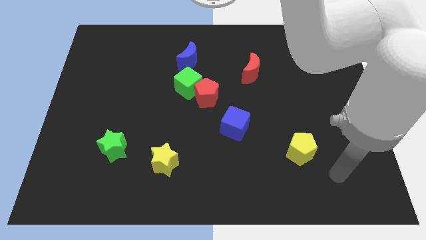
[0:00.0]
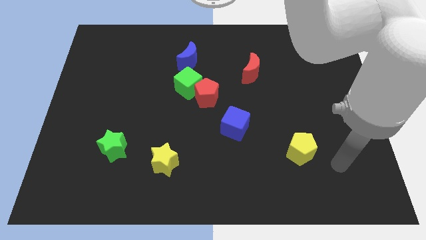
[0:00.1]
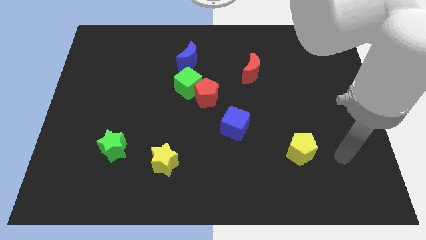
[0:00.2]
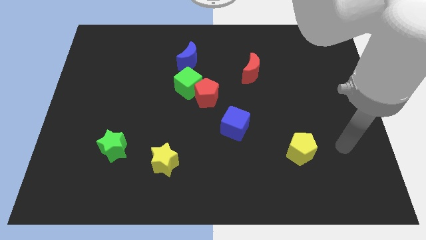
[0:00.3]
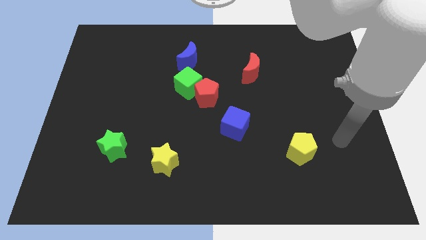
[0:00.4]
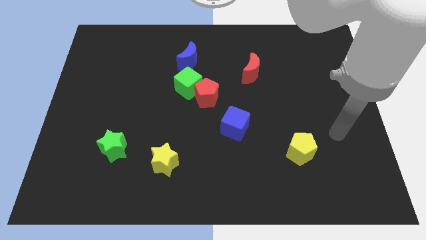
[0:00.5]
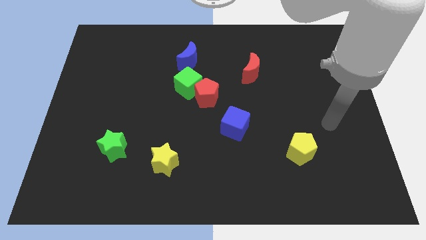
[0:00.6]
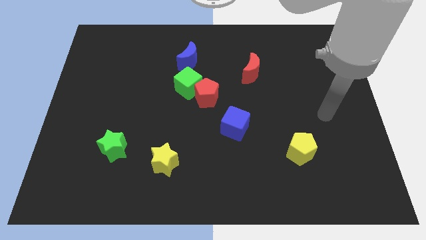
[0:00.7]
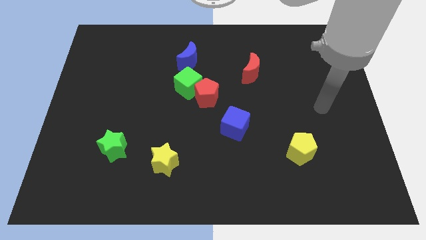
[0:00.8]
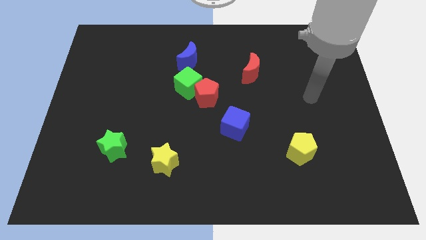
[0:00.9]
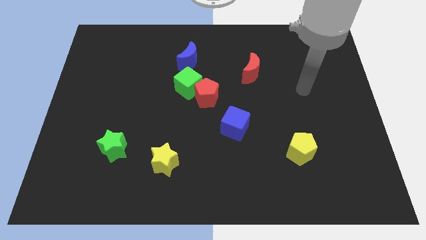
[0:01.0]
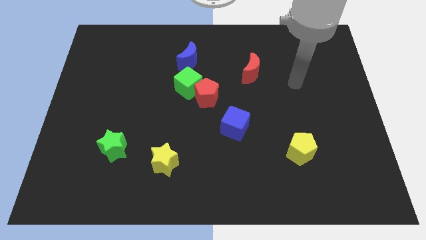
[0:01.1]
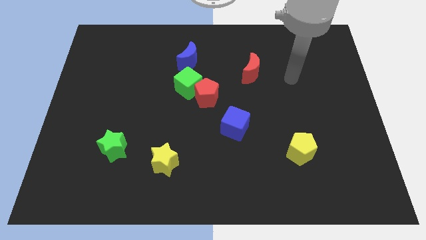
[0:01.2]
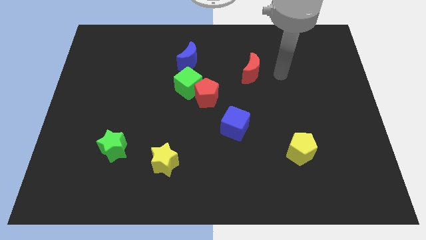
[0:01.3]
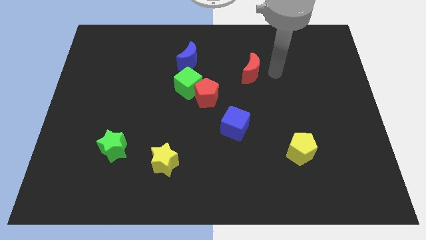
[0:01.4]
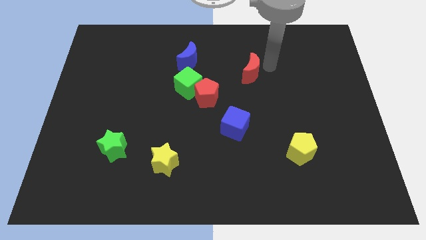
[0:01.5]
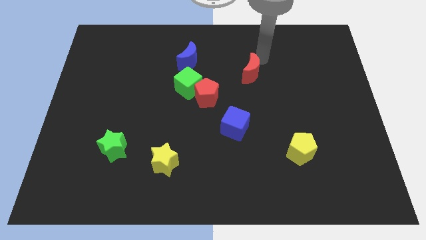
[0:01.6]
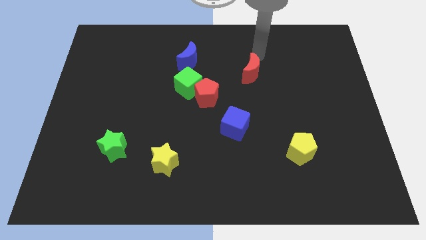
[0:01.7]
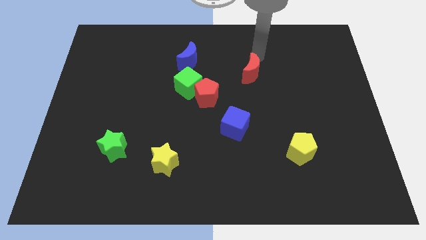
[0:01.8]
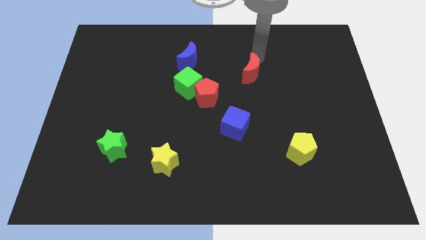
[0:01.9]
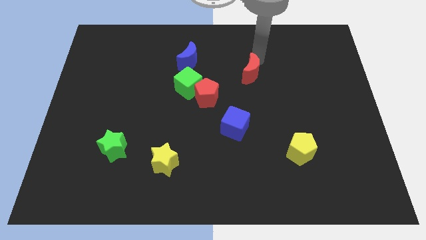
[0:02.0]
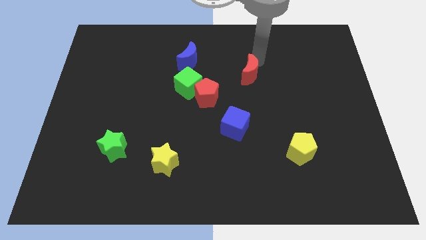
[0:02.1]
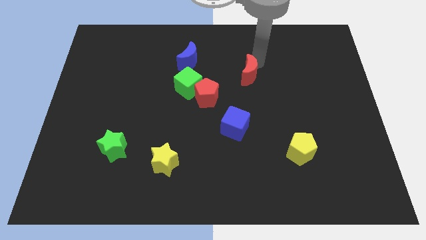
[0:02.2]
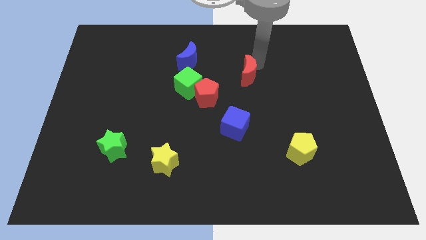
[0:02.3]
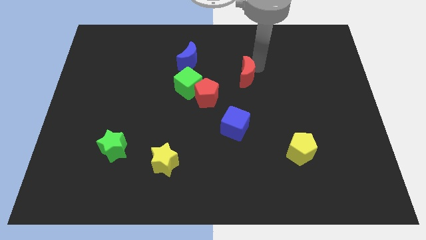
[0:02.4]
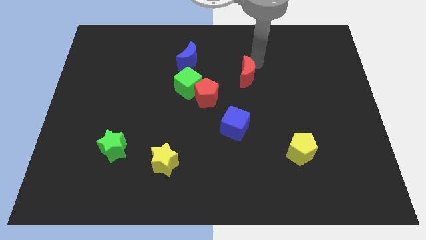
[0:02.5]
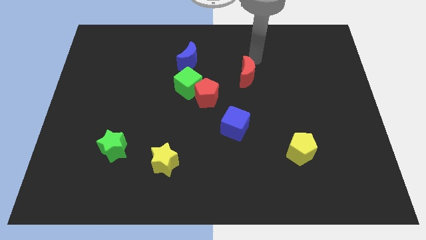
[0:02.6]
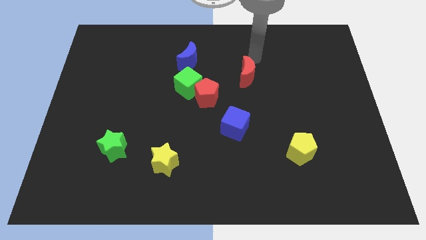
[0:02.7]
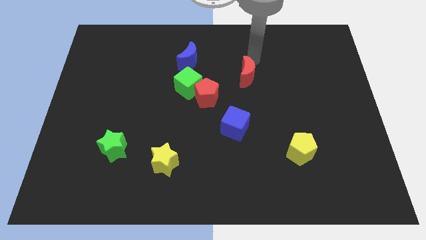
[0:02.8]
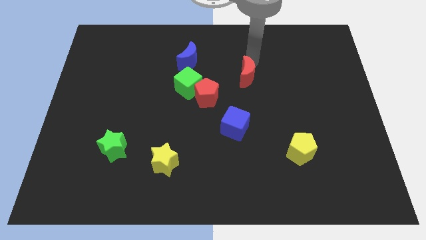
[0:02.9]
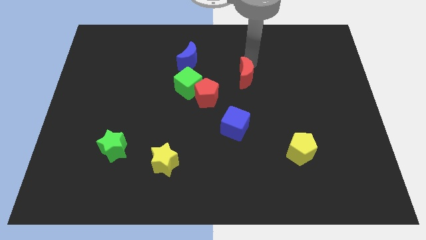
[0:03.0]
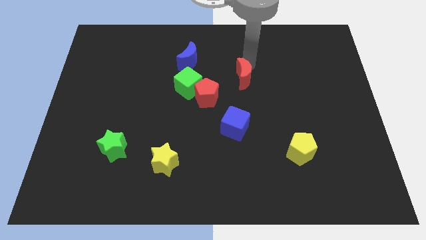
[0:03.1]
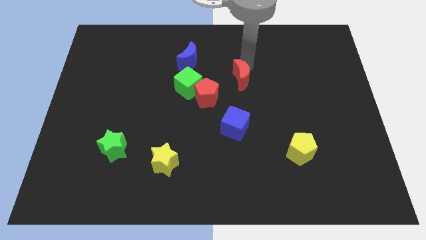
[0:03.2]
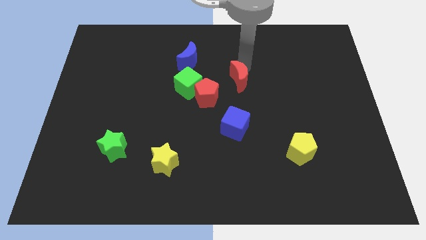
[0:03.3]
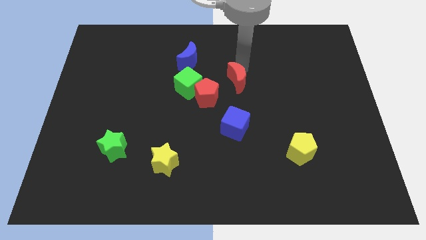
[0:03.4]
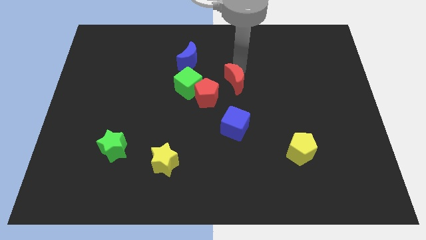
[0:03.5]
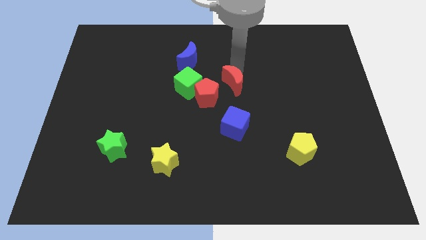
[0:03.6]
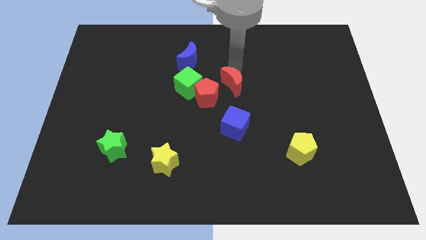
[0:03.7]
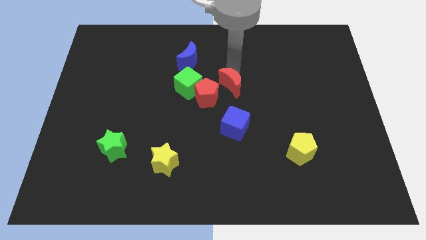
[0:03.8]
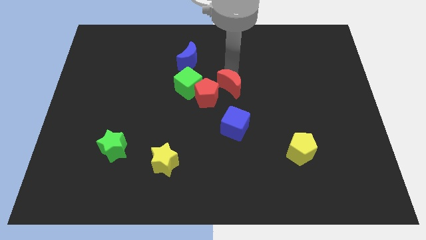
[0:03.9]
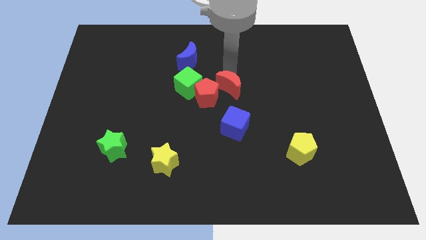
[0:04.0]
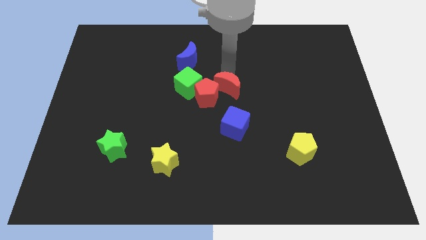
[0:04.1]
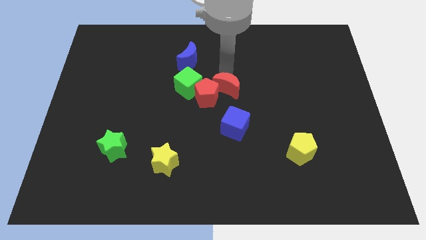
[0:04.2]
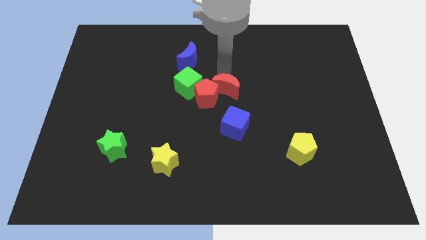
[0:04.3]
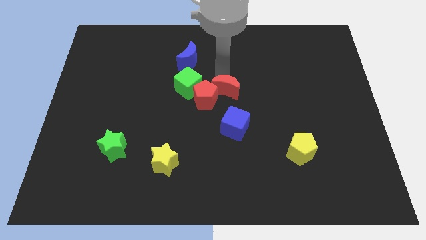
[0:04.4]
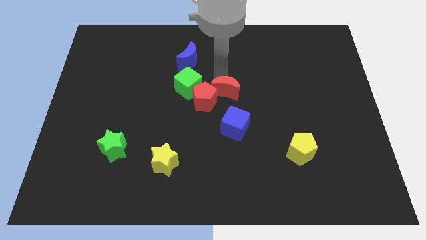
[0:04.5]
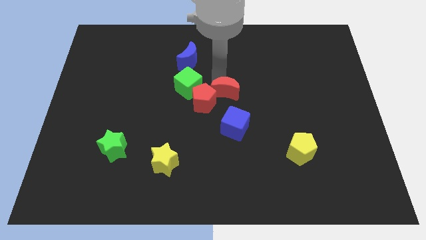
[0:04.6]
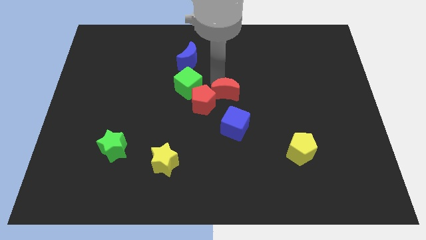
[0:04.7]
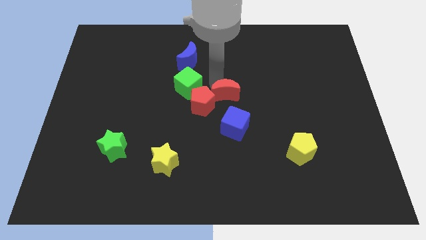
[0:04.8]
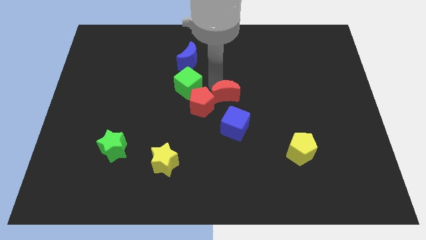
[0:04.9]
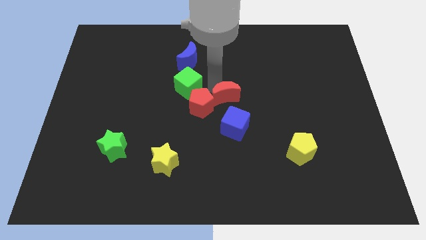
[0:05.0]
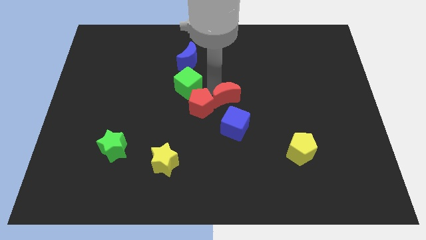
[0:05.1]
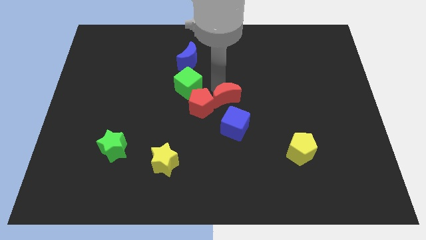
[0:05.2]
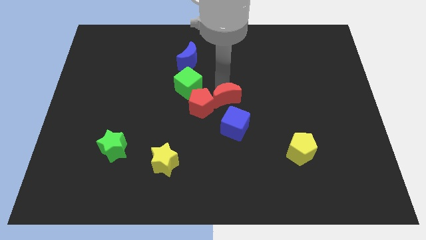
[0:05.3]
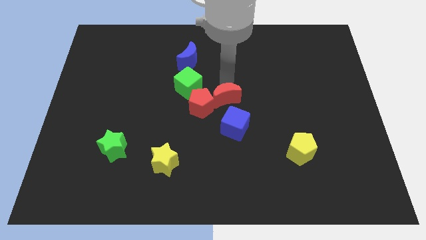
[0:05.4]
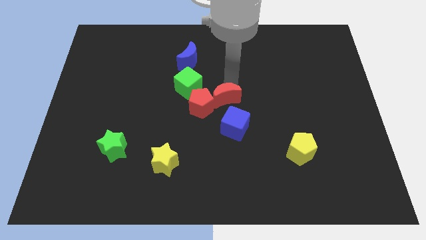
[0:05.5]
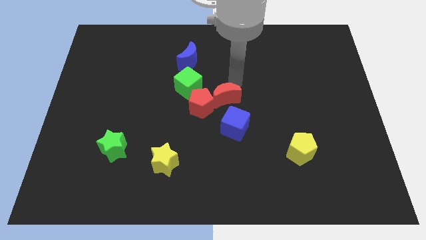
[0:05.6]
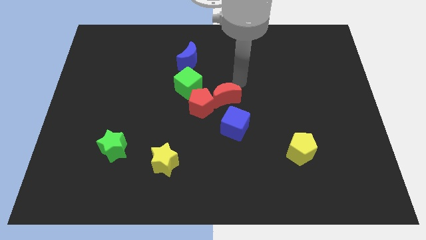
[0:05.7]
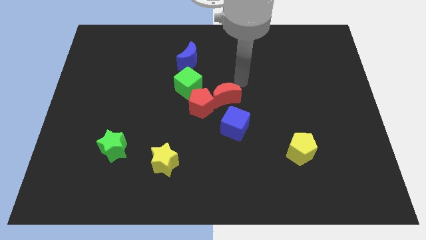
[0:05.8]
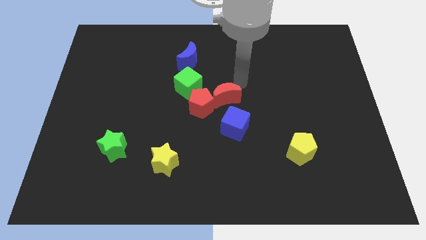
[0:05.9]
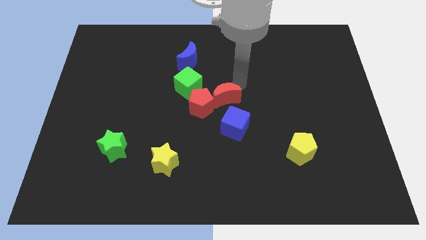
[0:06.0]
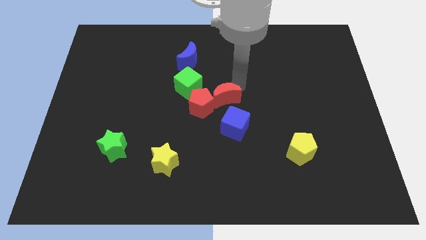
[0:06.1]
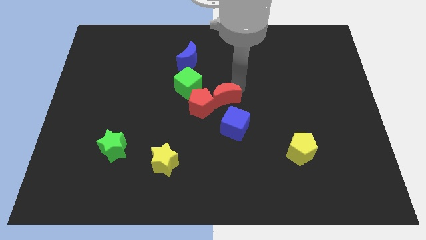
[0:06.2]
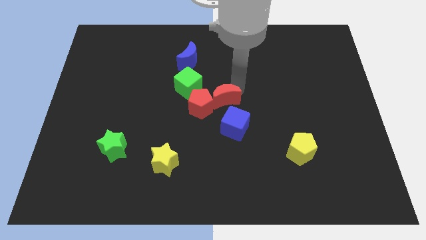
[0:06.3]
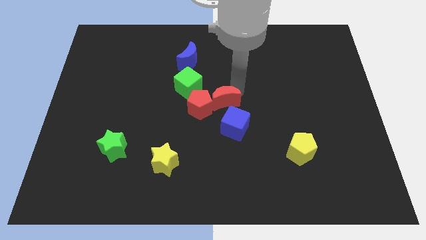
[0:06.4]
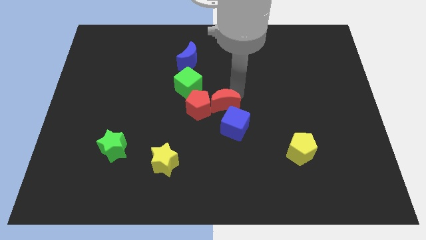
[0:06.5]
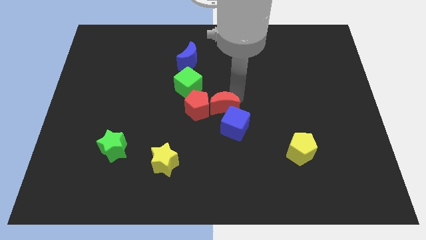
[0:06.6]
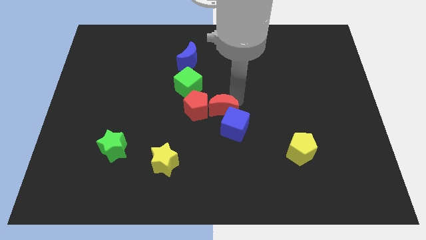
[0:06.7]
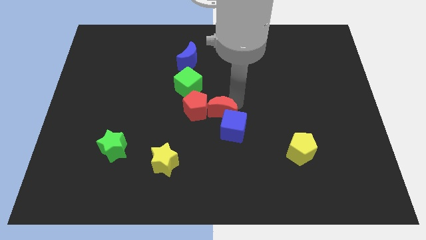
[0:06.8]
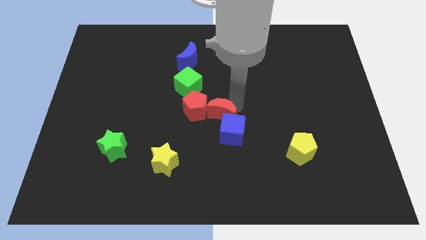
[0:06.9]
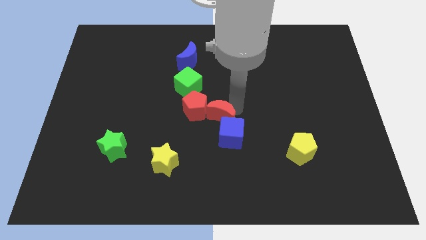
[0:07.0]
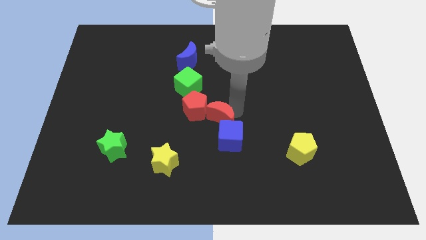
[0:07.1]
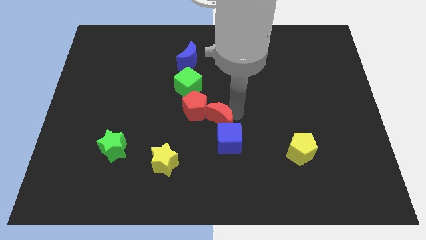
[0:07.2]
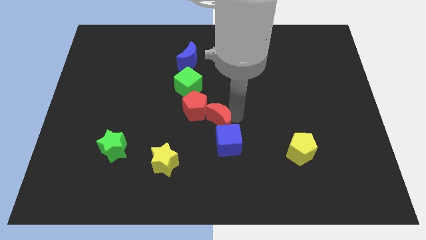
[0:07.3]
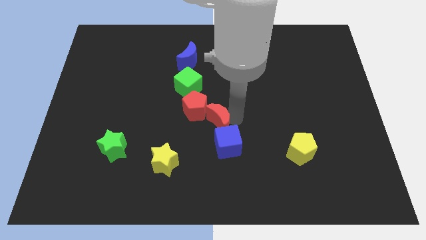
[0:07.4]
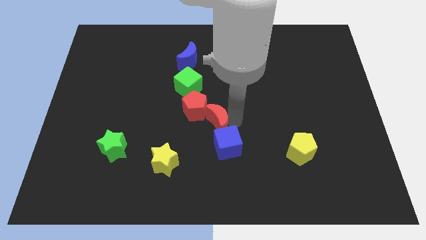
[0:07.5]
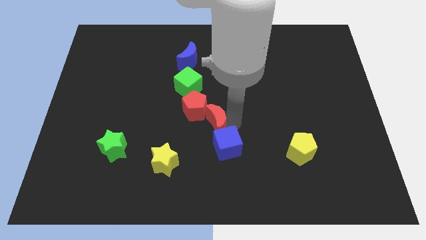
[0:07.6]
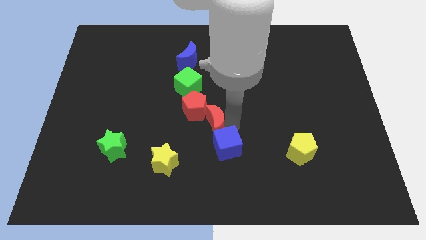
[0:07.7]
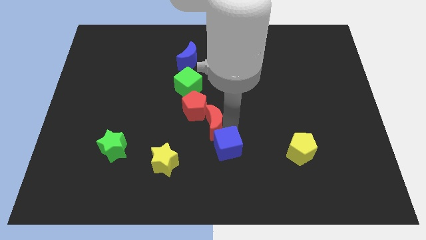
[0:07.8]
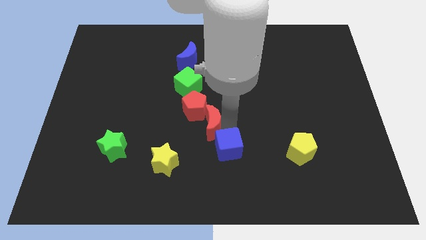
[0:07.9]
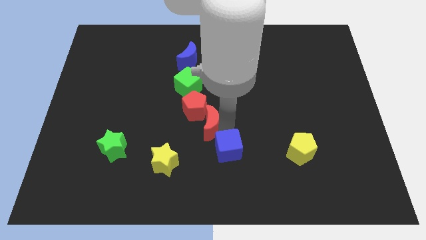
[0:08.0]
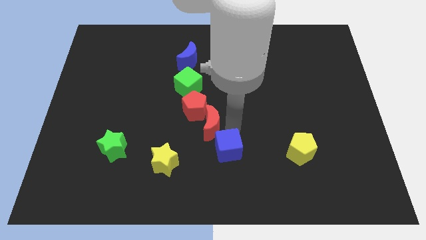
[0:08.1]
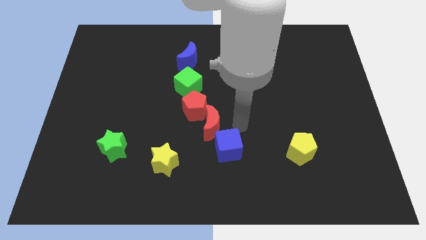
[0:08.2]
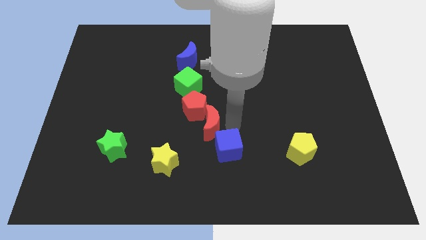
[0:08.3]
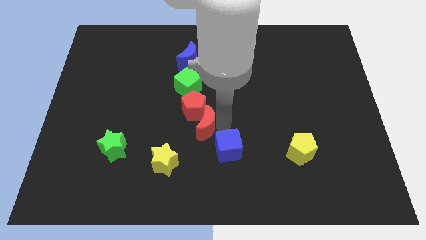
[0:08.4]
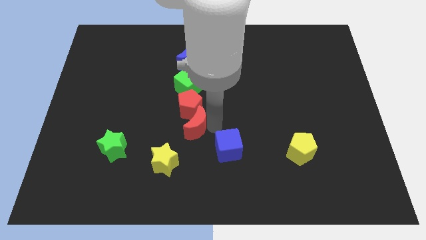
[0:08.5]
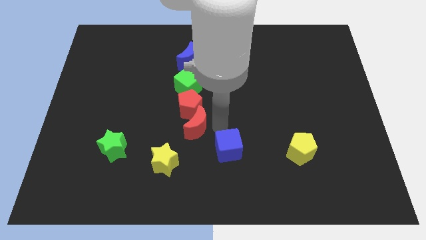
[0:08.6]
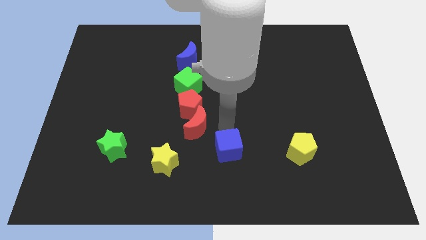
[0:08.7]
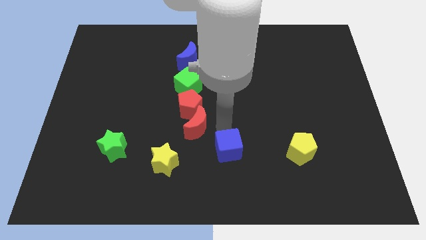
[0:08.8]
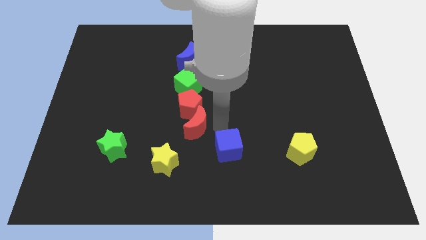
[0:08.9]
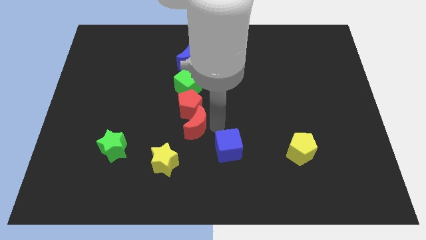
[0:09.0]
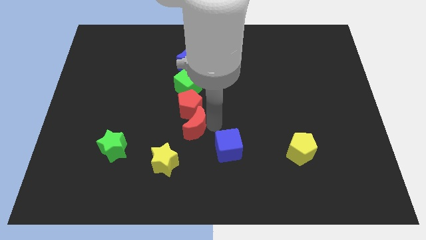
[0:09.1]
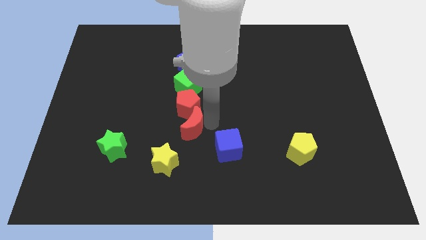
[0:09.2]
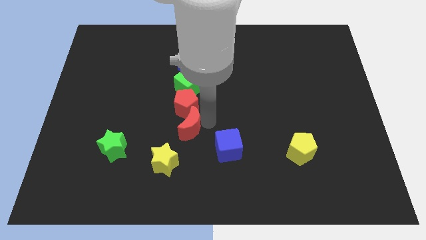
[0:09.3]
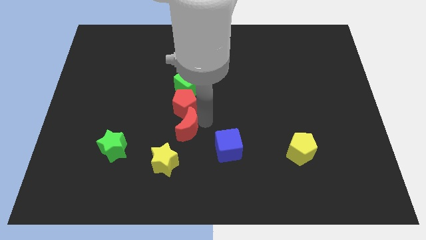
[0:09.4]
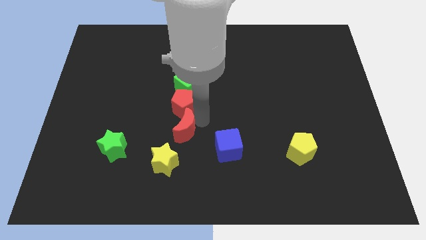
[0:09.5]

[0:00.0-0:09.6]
push the red moon to the bottom left side of the red pentagon
